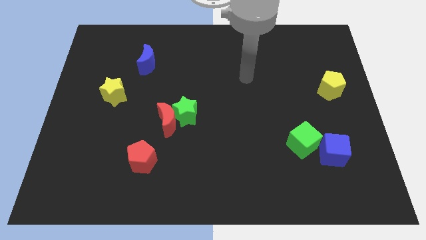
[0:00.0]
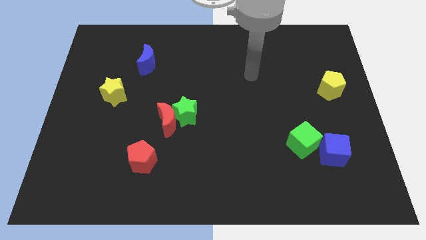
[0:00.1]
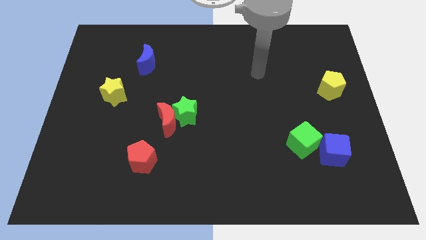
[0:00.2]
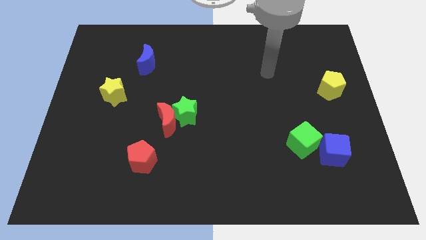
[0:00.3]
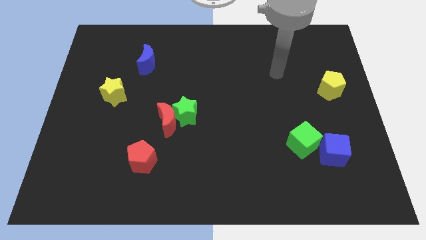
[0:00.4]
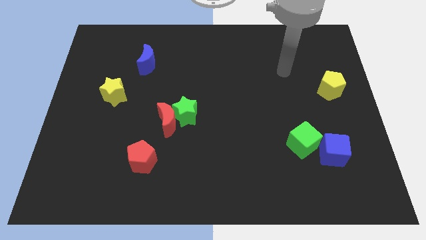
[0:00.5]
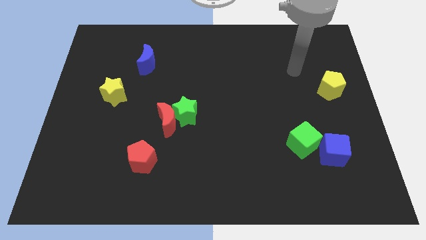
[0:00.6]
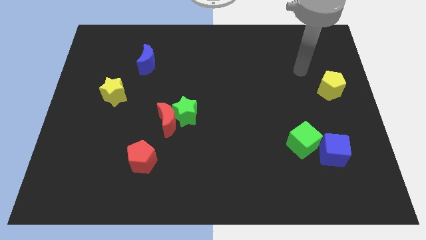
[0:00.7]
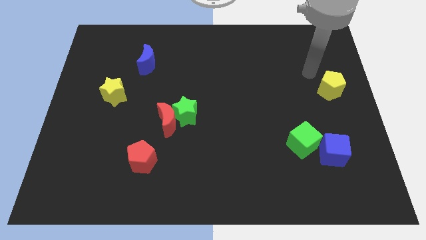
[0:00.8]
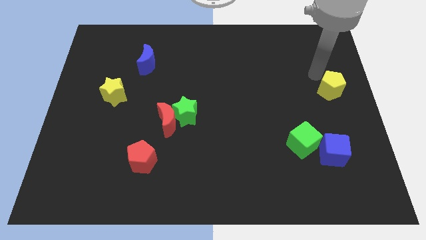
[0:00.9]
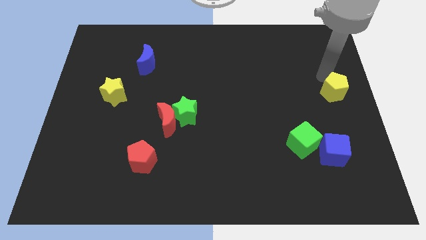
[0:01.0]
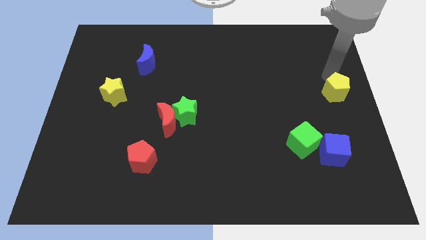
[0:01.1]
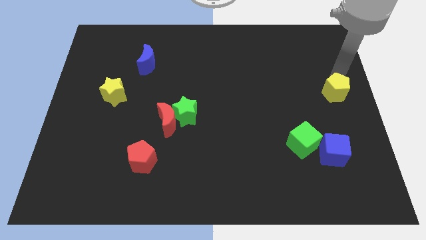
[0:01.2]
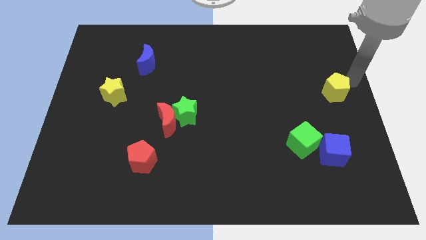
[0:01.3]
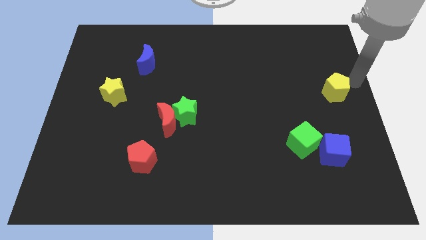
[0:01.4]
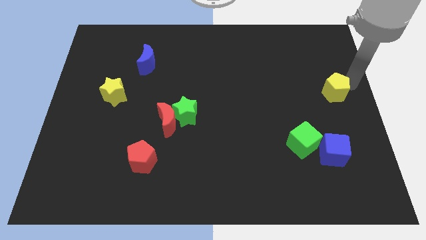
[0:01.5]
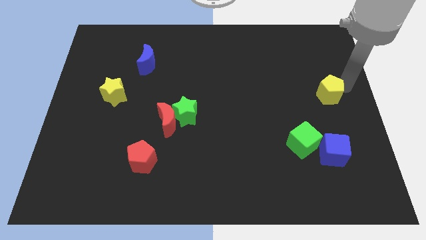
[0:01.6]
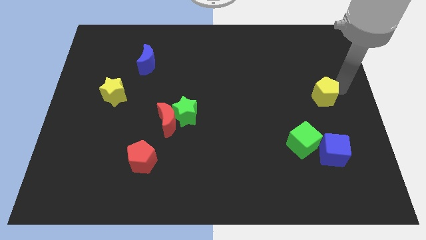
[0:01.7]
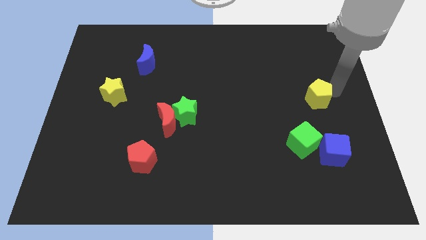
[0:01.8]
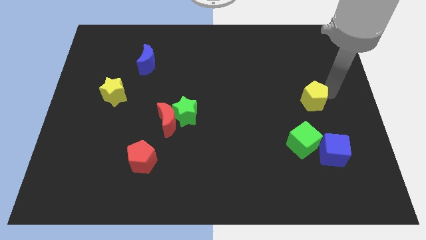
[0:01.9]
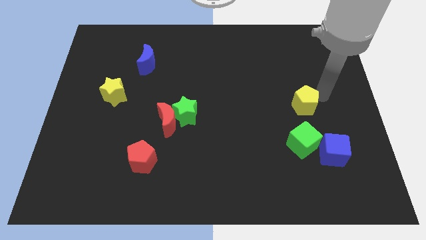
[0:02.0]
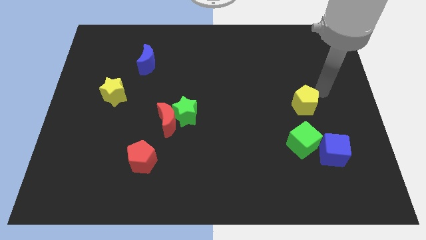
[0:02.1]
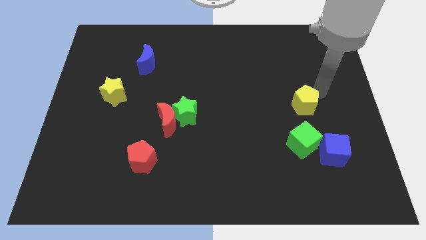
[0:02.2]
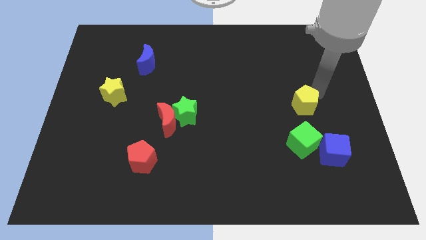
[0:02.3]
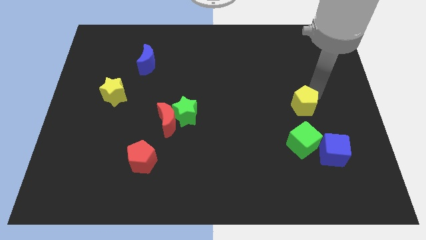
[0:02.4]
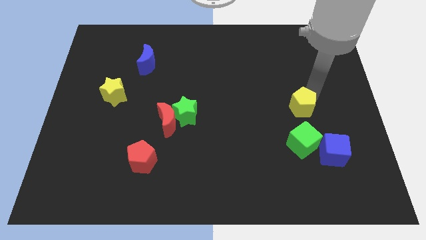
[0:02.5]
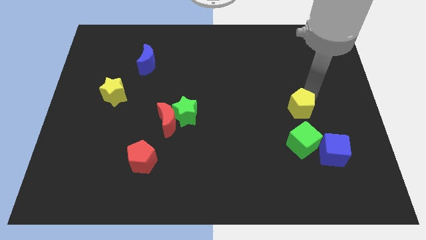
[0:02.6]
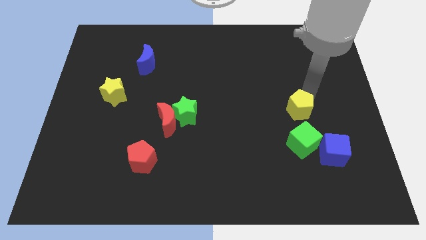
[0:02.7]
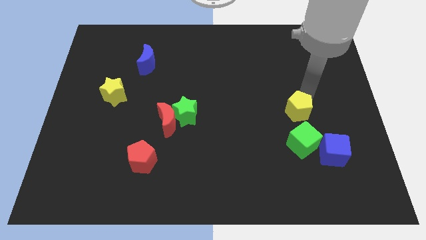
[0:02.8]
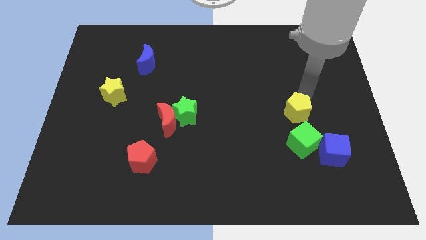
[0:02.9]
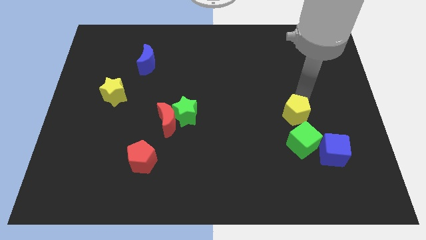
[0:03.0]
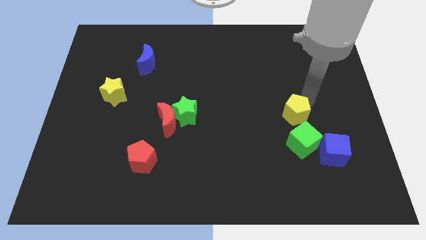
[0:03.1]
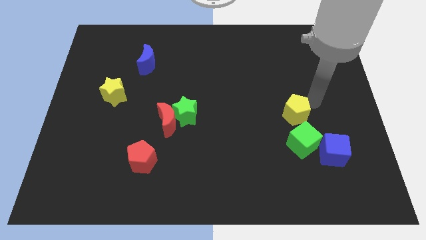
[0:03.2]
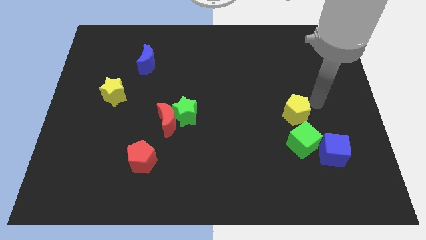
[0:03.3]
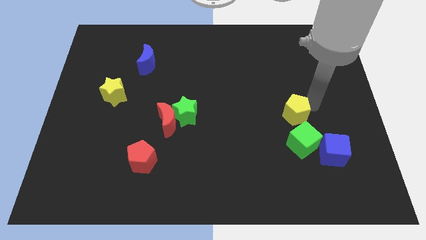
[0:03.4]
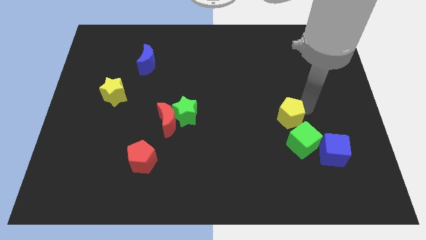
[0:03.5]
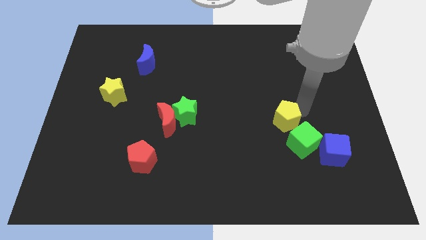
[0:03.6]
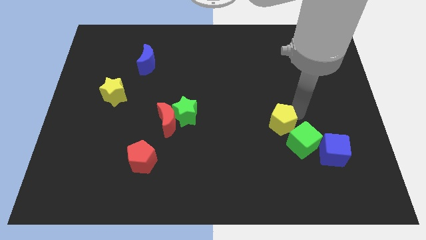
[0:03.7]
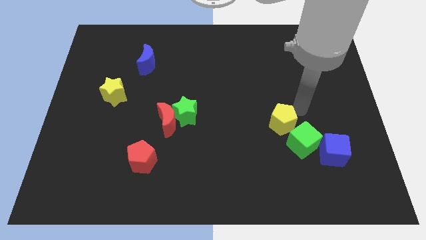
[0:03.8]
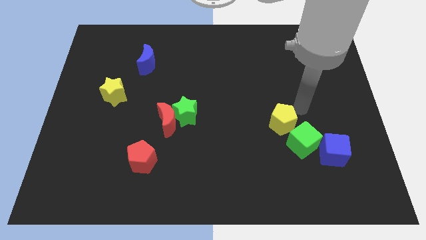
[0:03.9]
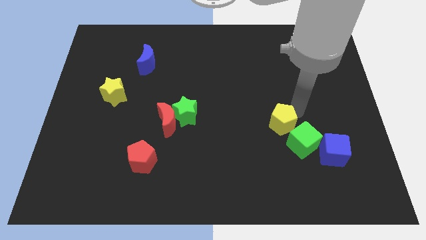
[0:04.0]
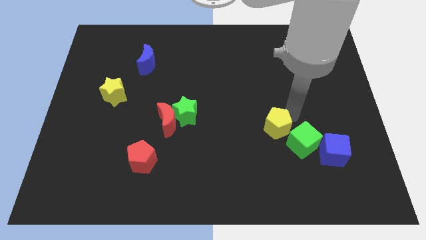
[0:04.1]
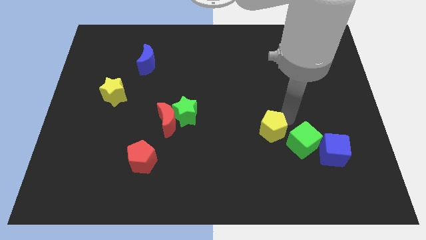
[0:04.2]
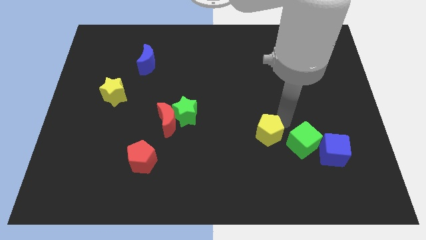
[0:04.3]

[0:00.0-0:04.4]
slide the yellow pentagon downwards and then to the left

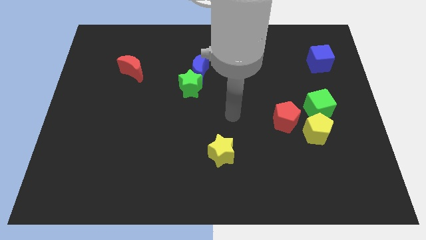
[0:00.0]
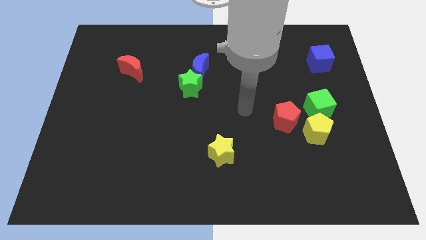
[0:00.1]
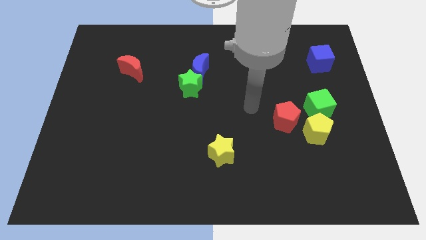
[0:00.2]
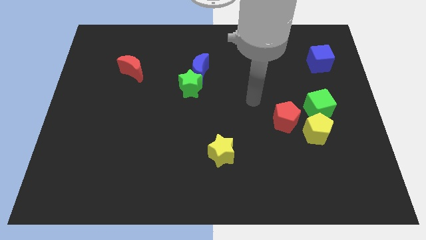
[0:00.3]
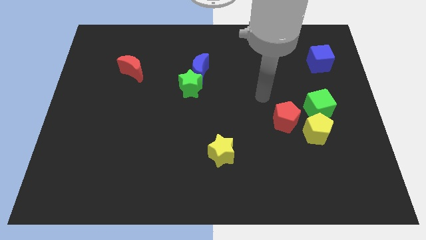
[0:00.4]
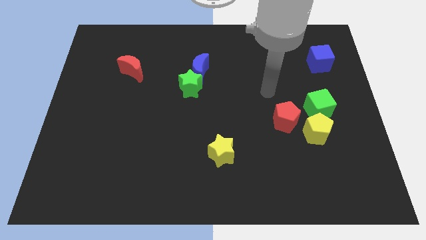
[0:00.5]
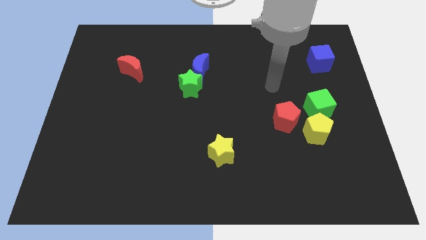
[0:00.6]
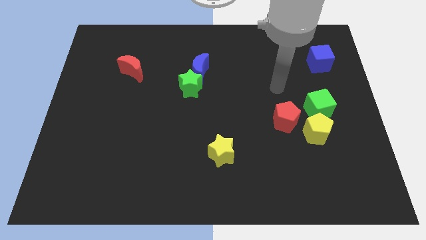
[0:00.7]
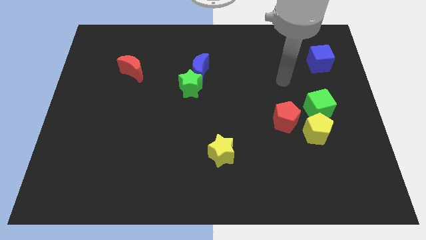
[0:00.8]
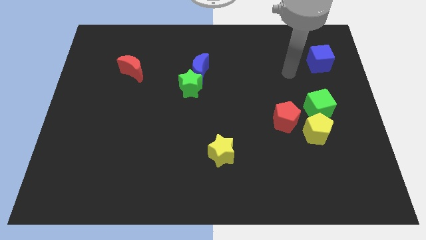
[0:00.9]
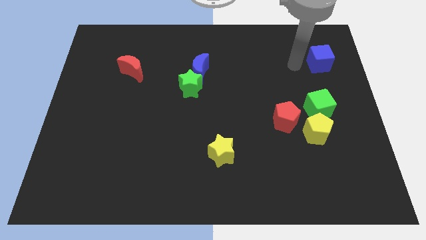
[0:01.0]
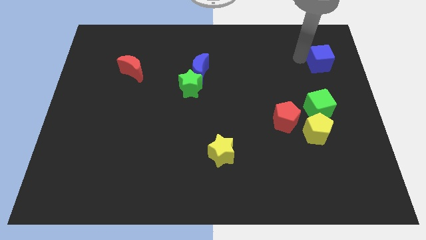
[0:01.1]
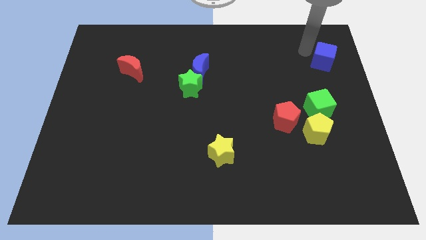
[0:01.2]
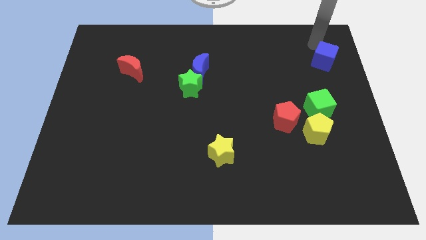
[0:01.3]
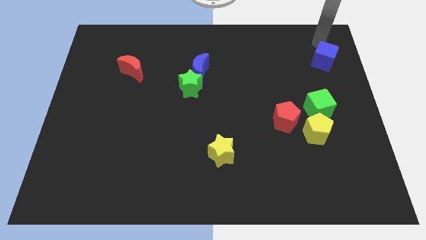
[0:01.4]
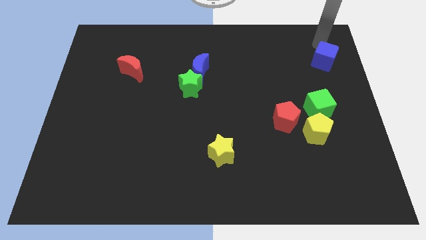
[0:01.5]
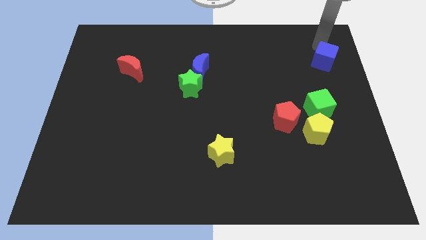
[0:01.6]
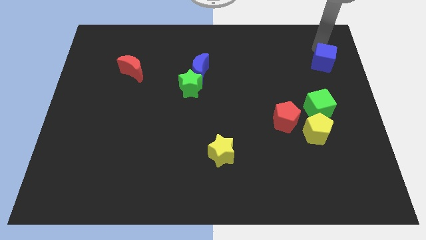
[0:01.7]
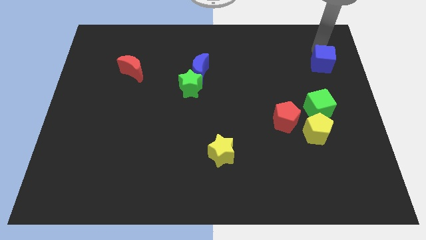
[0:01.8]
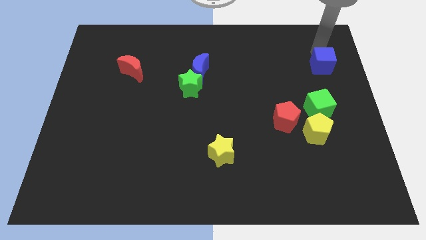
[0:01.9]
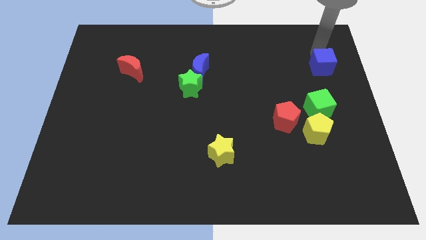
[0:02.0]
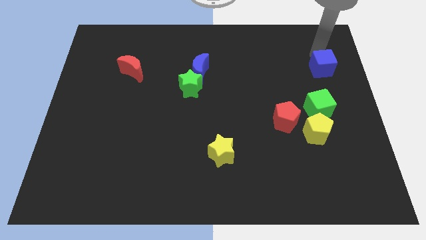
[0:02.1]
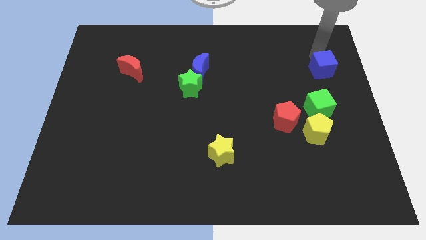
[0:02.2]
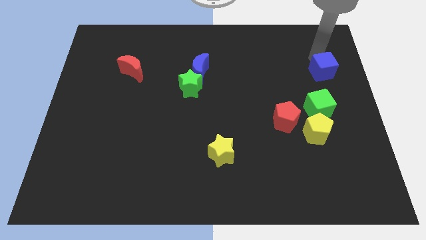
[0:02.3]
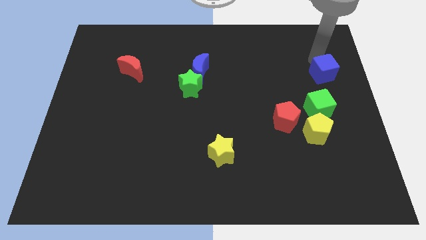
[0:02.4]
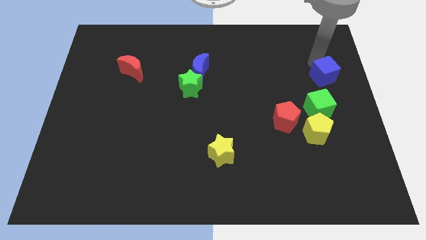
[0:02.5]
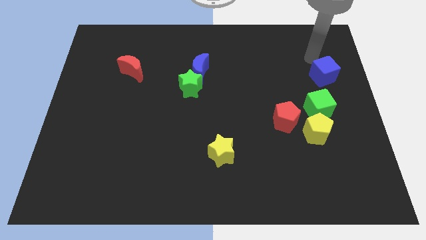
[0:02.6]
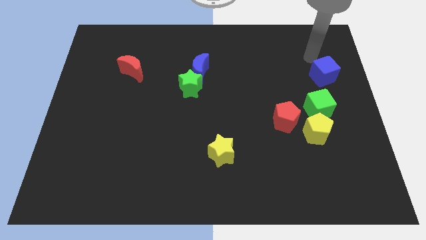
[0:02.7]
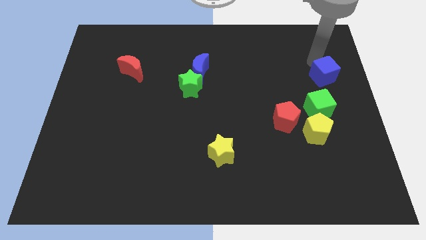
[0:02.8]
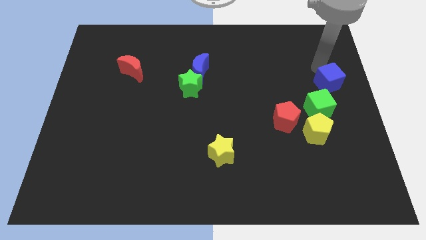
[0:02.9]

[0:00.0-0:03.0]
slide the blue cube slightly down
